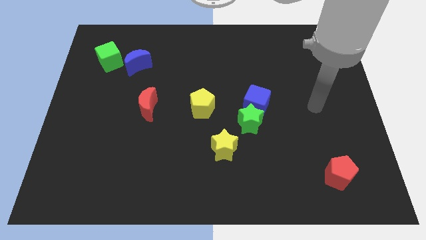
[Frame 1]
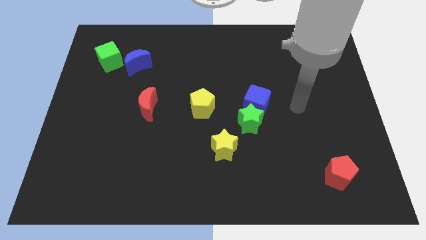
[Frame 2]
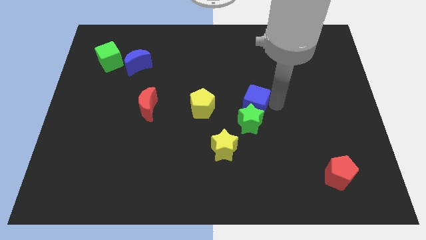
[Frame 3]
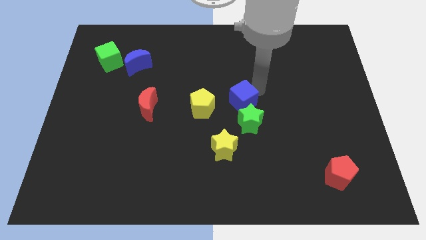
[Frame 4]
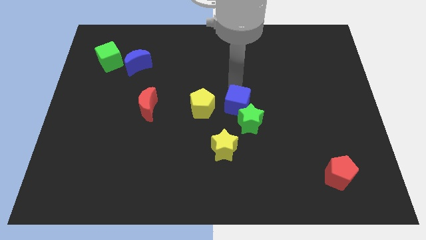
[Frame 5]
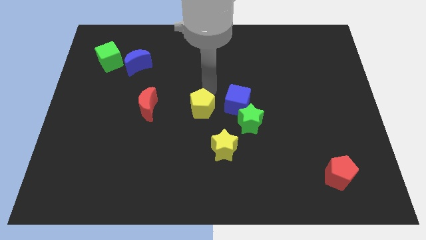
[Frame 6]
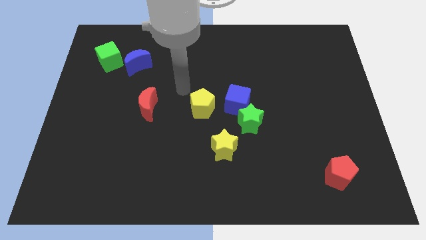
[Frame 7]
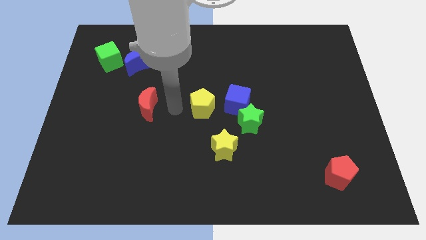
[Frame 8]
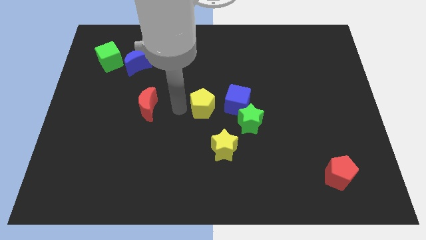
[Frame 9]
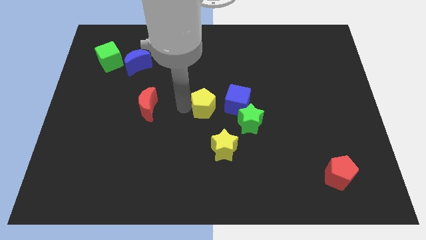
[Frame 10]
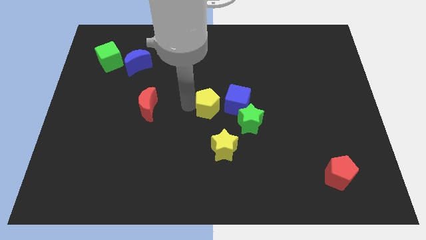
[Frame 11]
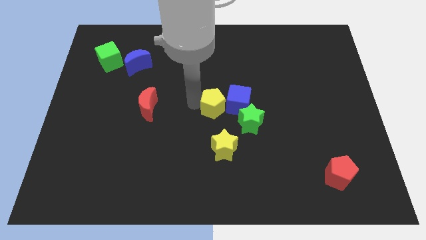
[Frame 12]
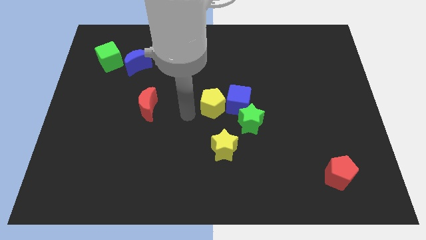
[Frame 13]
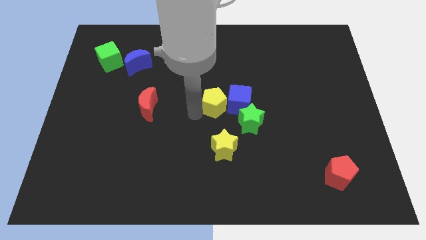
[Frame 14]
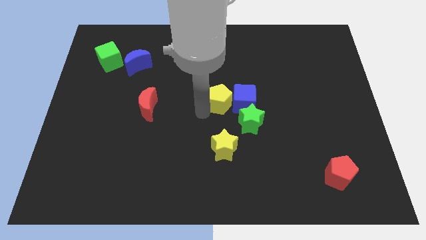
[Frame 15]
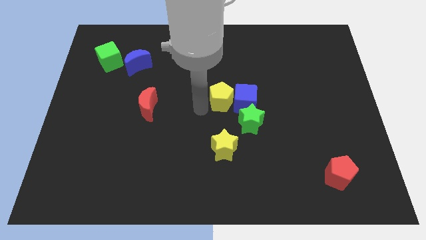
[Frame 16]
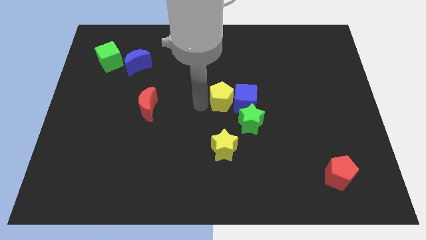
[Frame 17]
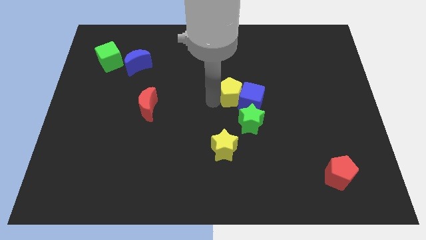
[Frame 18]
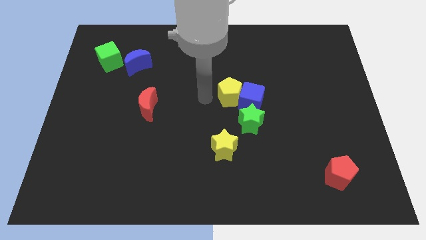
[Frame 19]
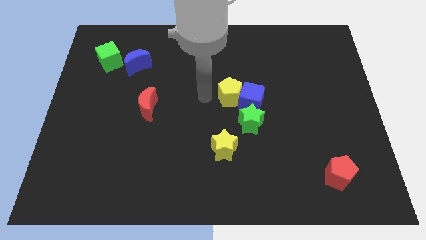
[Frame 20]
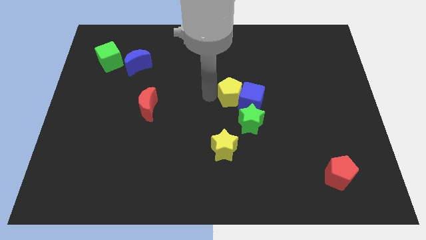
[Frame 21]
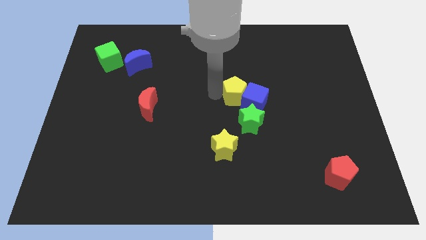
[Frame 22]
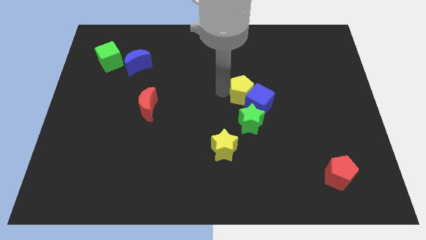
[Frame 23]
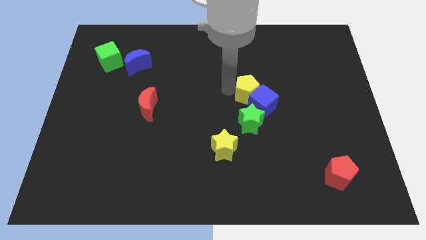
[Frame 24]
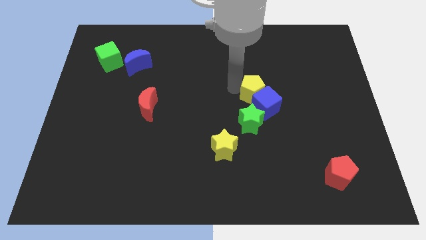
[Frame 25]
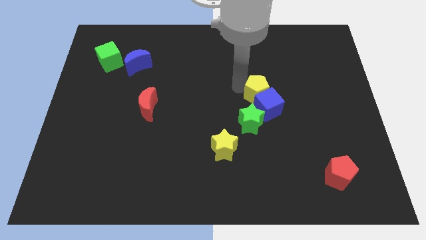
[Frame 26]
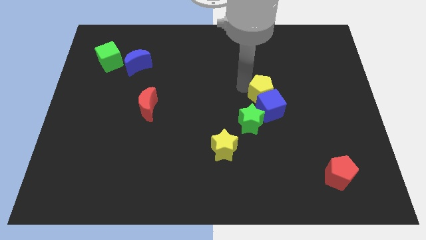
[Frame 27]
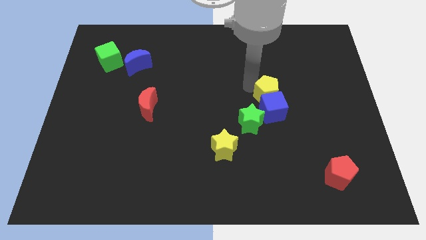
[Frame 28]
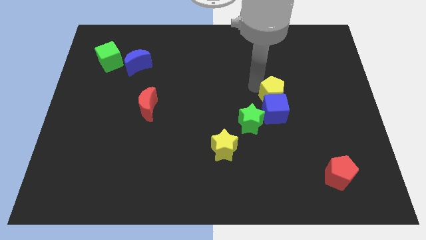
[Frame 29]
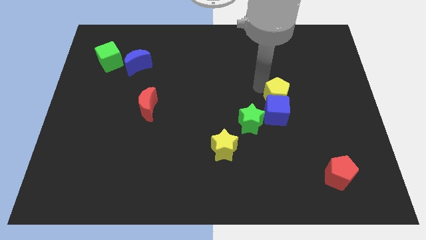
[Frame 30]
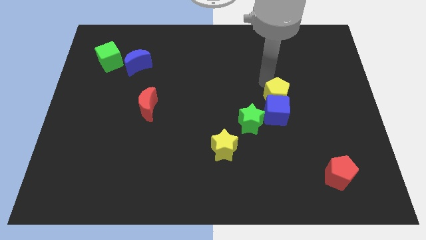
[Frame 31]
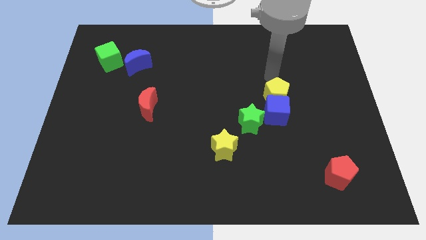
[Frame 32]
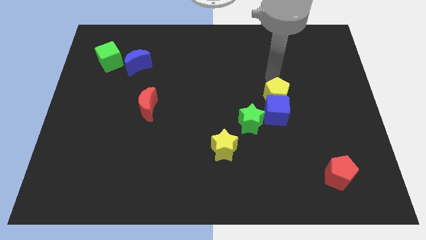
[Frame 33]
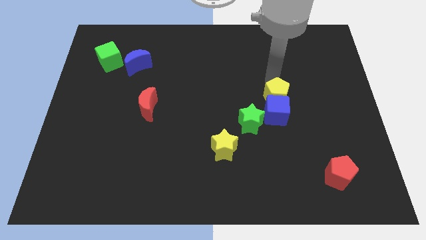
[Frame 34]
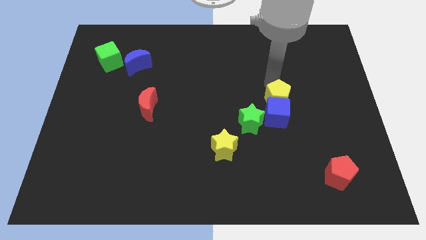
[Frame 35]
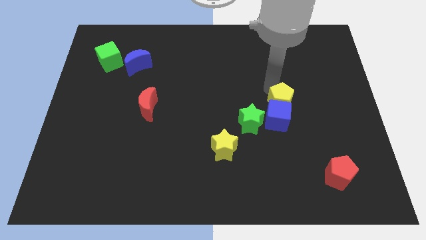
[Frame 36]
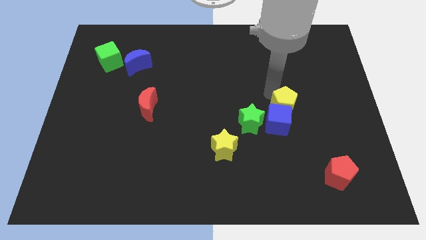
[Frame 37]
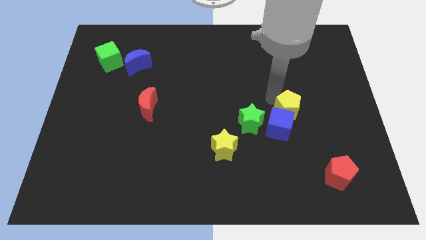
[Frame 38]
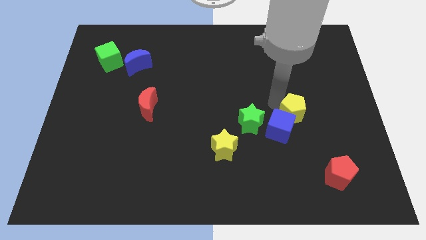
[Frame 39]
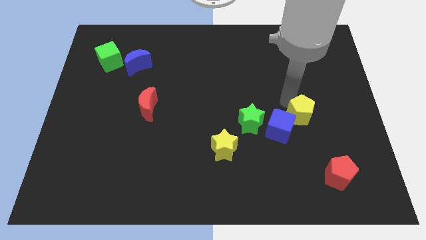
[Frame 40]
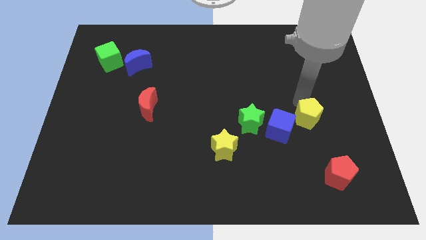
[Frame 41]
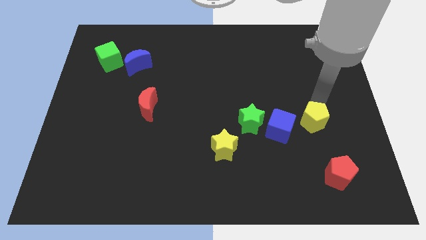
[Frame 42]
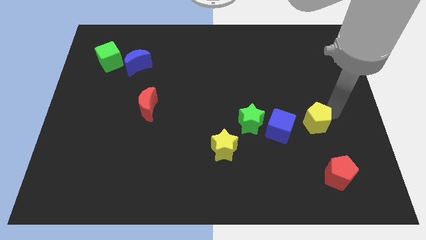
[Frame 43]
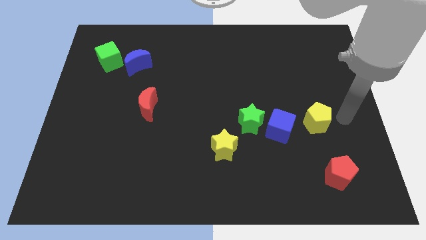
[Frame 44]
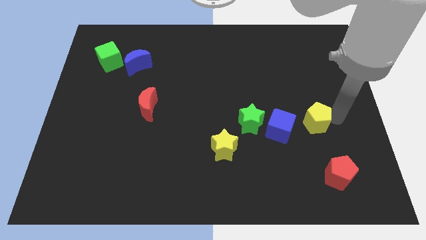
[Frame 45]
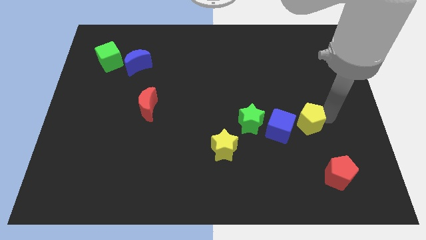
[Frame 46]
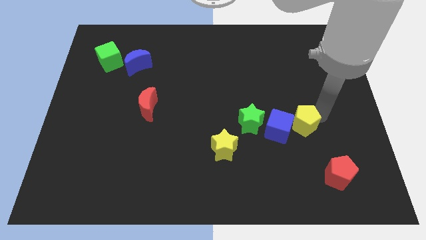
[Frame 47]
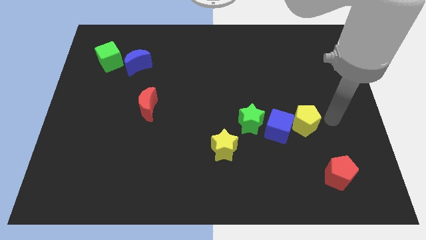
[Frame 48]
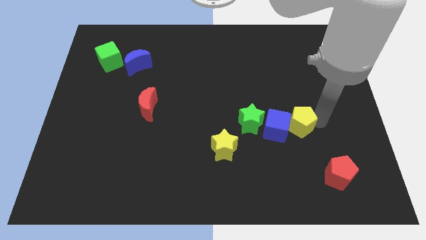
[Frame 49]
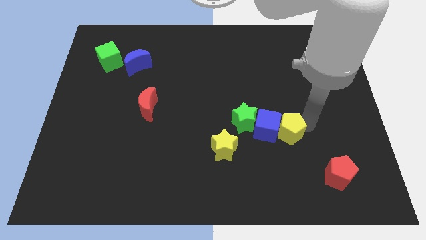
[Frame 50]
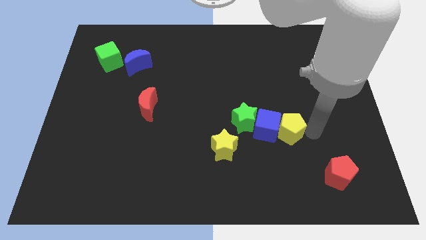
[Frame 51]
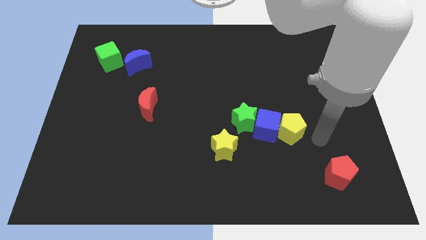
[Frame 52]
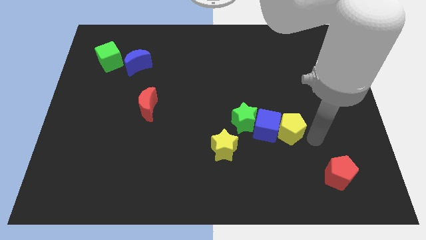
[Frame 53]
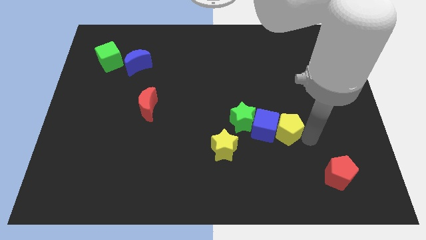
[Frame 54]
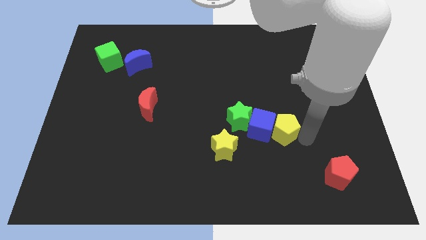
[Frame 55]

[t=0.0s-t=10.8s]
slide the yellow pentagon right of the yellow star

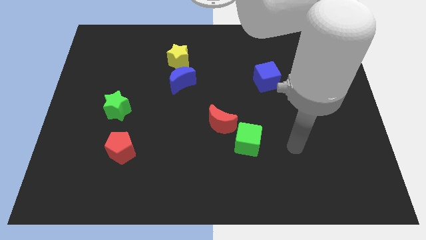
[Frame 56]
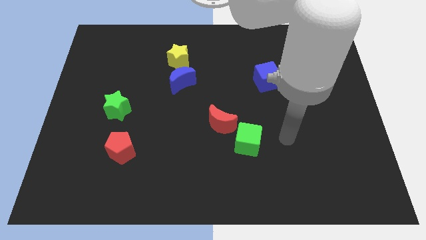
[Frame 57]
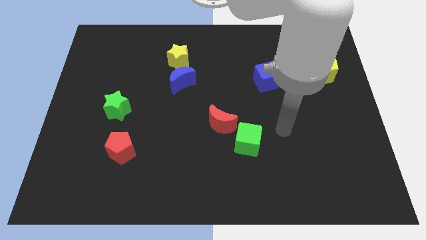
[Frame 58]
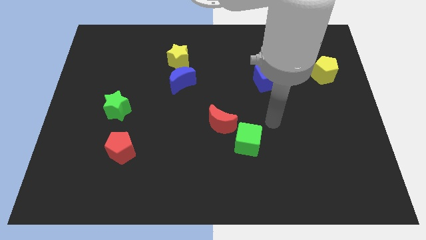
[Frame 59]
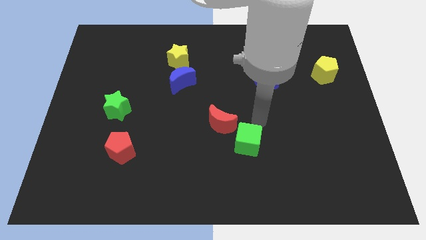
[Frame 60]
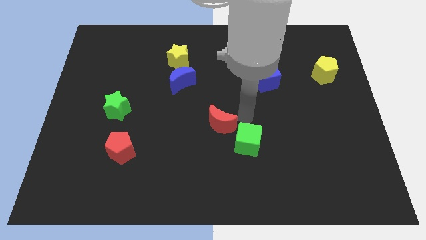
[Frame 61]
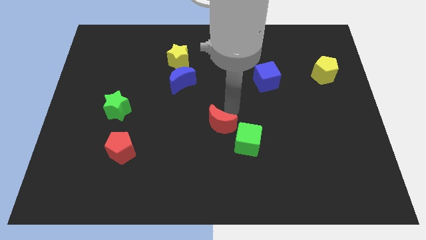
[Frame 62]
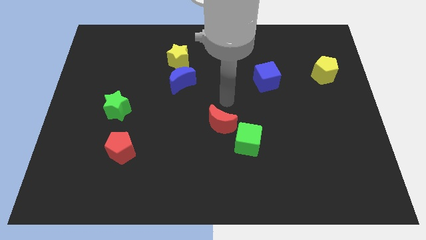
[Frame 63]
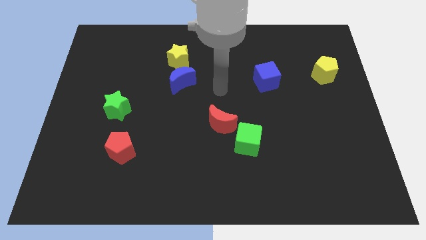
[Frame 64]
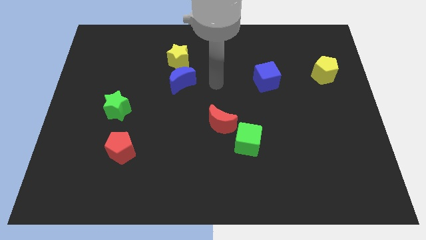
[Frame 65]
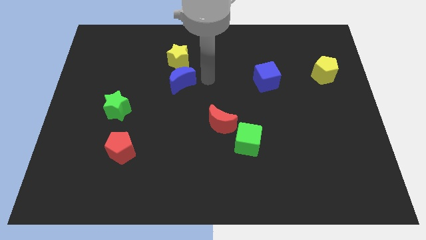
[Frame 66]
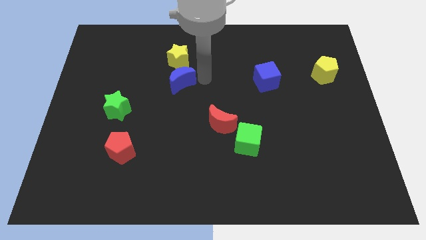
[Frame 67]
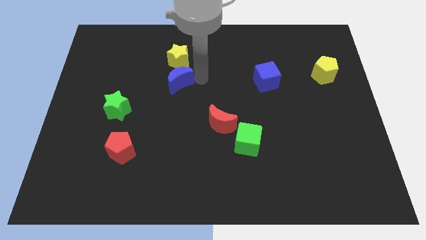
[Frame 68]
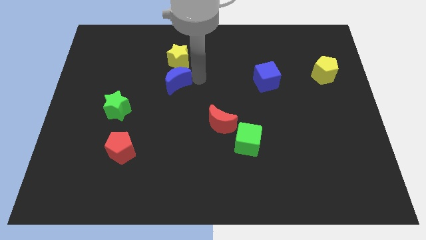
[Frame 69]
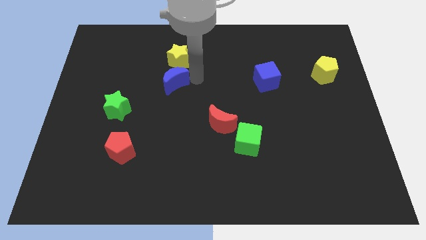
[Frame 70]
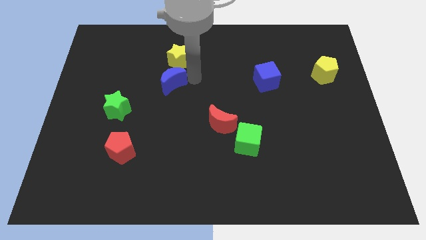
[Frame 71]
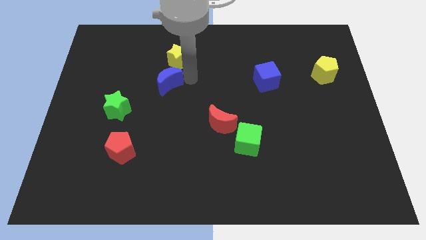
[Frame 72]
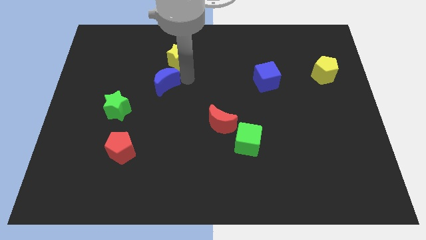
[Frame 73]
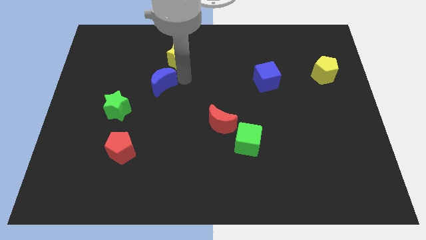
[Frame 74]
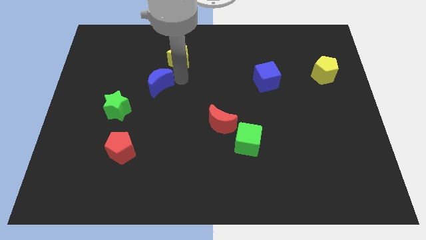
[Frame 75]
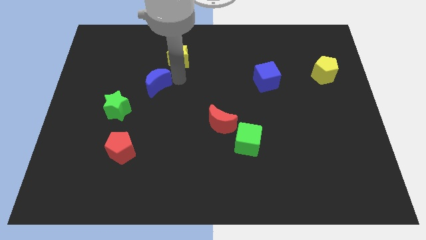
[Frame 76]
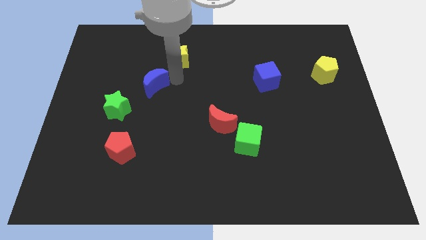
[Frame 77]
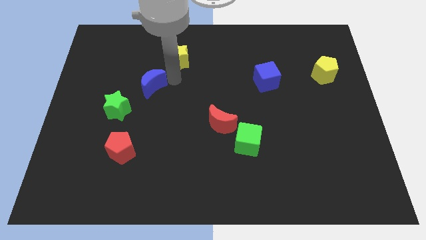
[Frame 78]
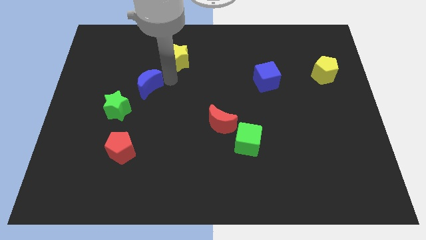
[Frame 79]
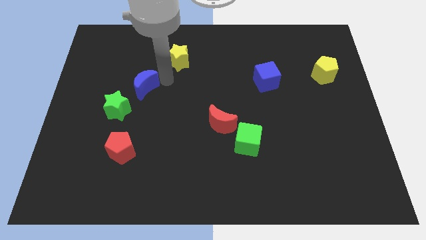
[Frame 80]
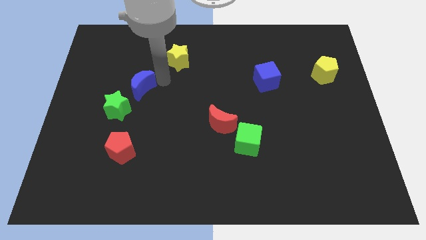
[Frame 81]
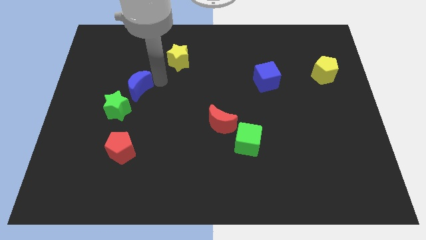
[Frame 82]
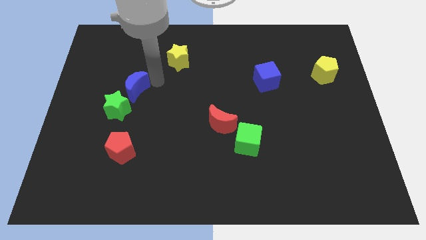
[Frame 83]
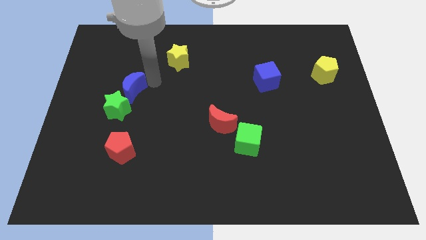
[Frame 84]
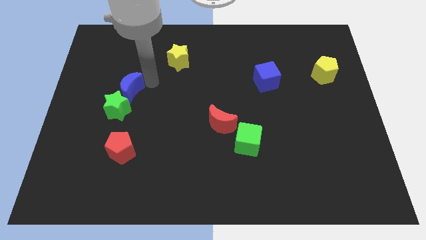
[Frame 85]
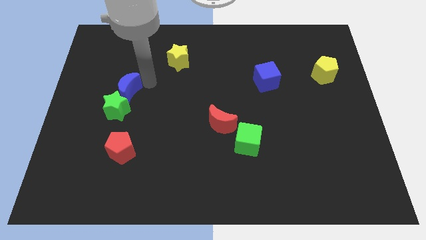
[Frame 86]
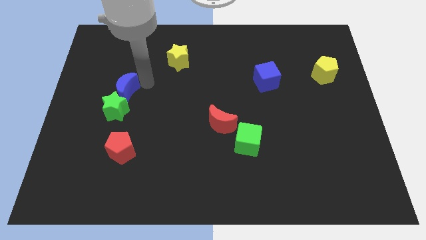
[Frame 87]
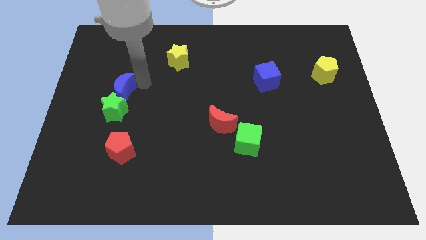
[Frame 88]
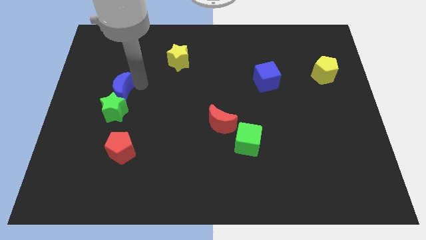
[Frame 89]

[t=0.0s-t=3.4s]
move the blue moon to the top left side of the green star
